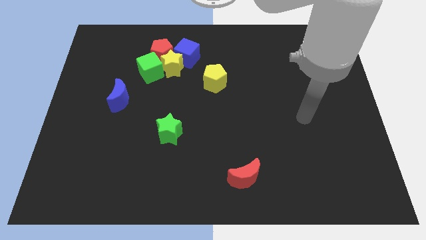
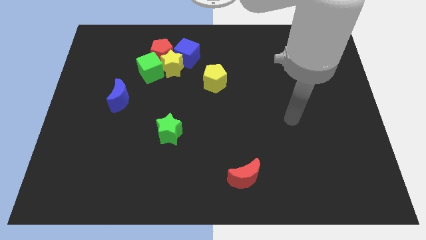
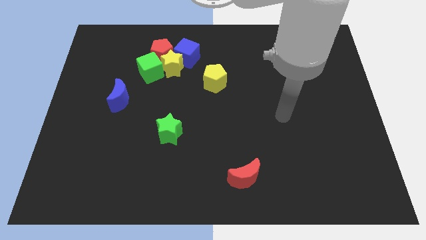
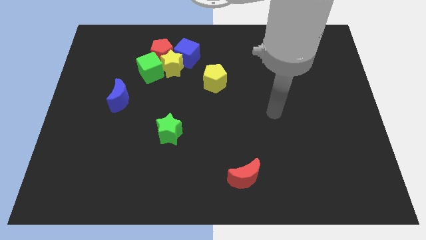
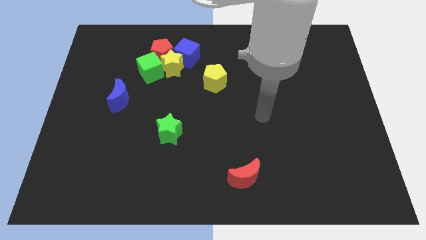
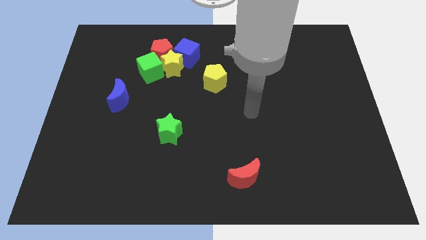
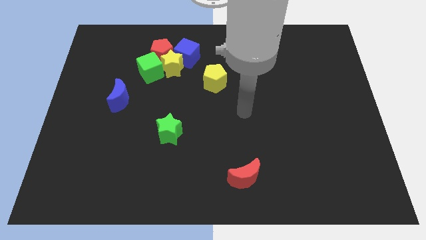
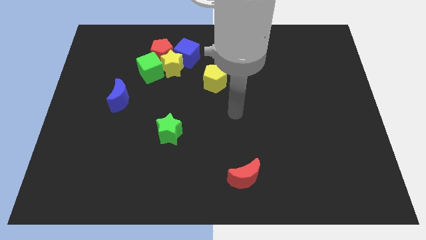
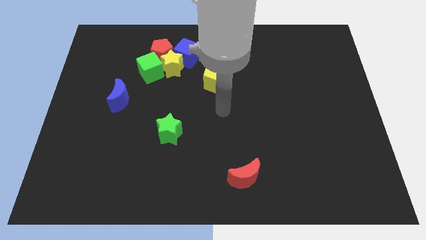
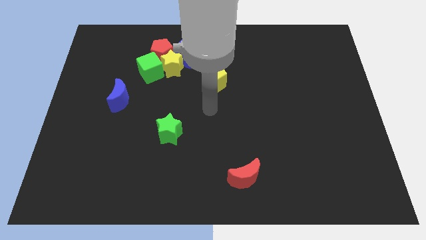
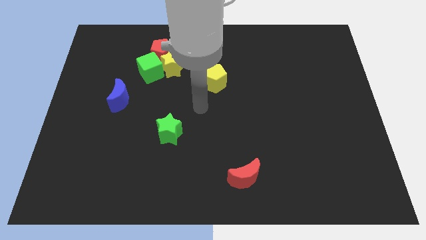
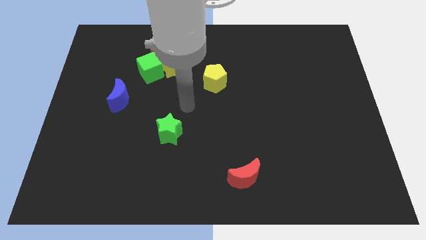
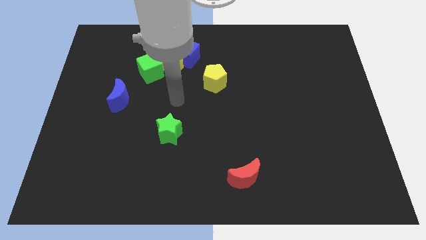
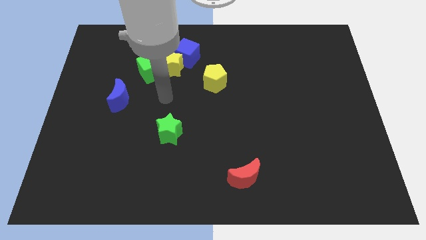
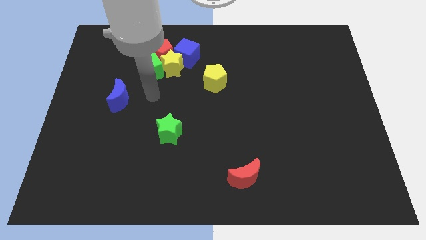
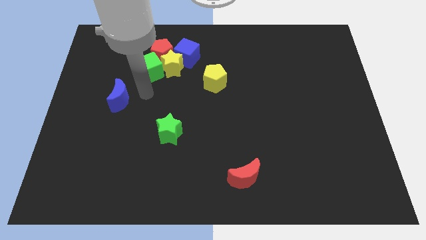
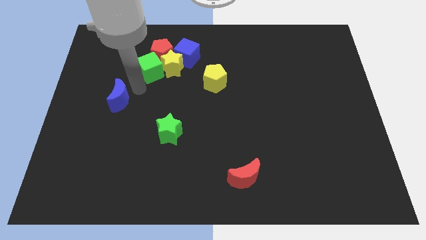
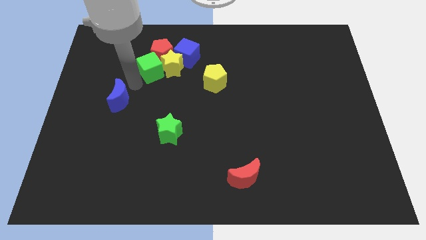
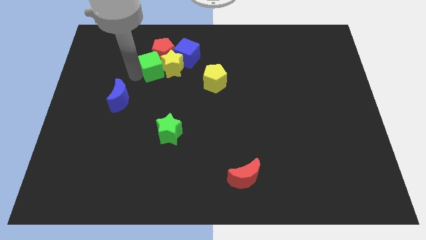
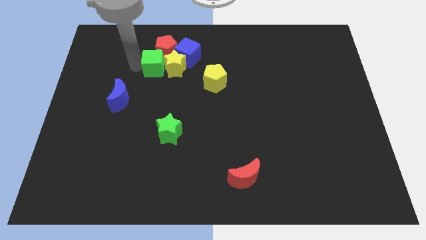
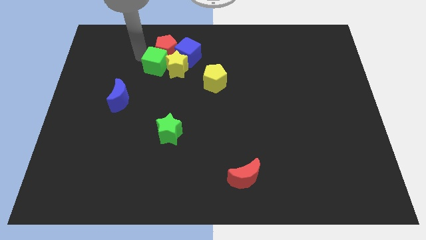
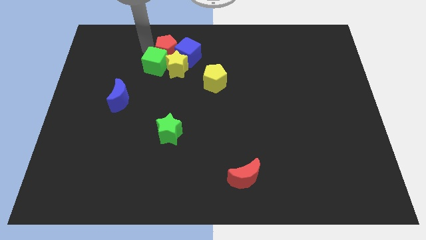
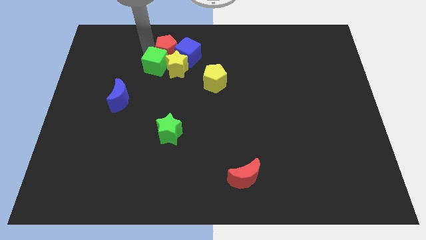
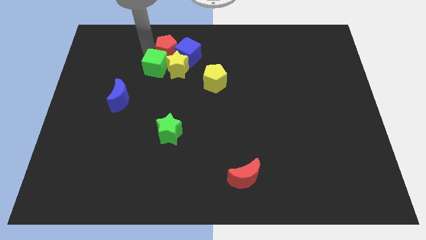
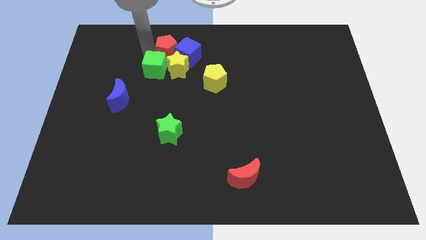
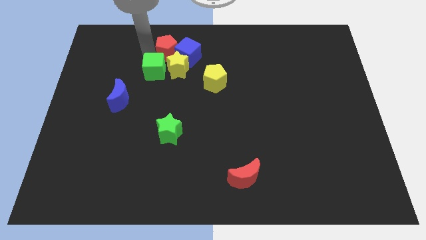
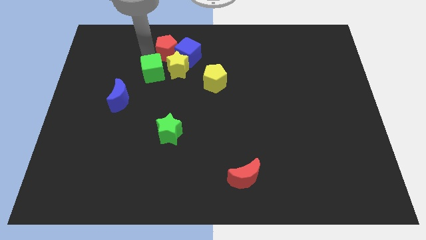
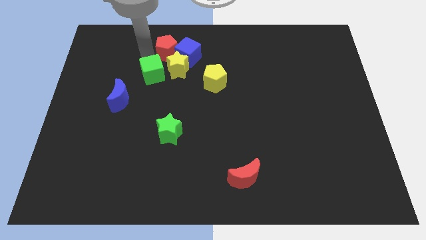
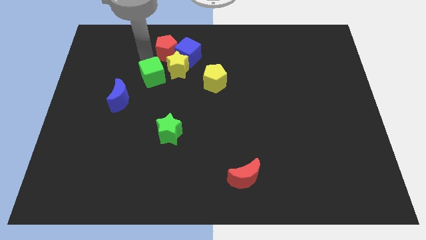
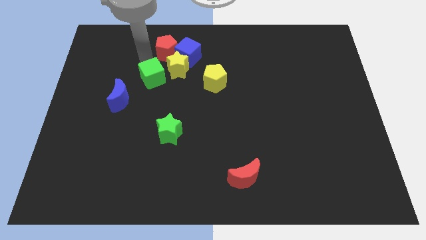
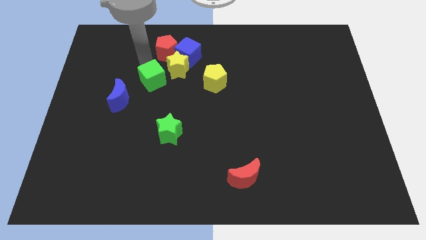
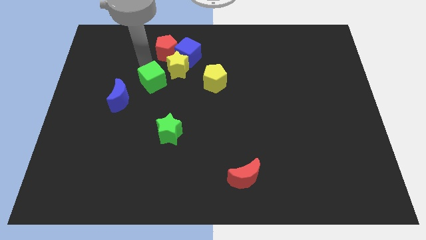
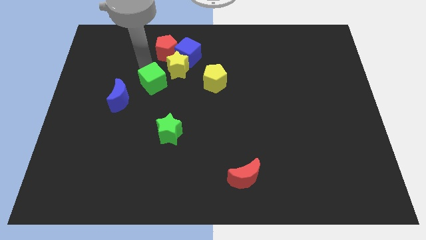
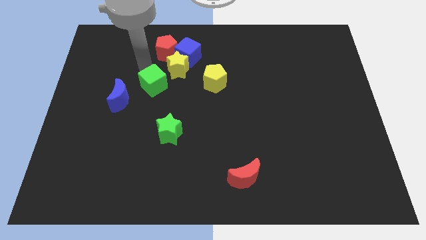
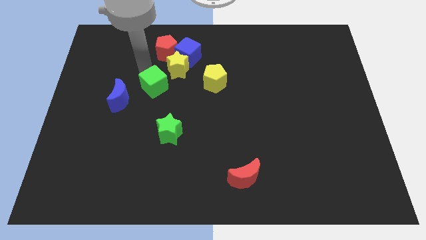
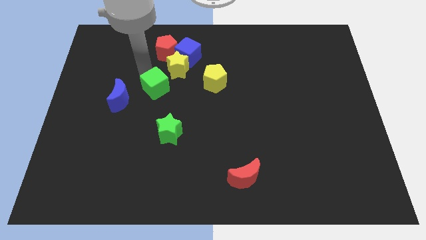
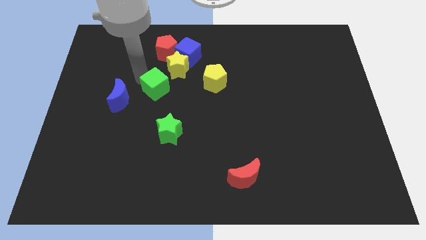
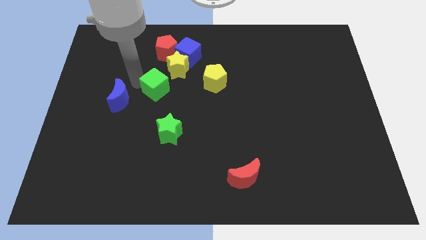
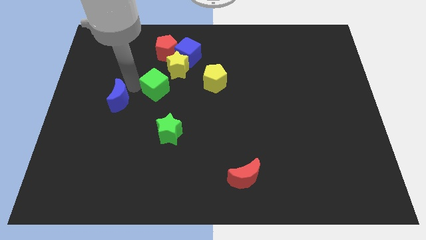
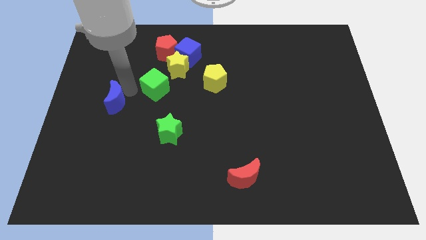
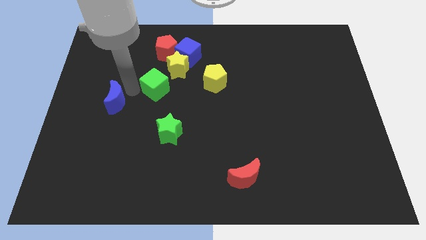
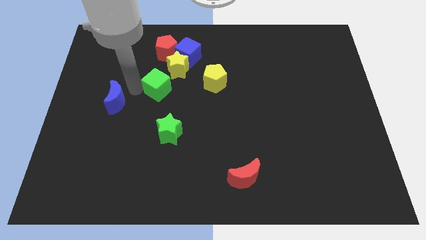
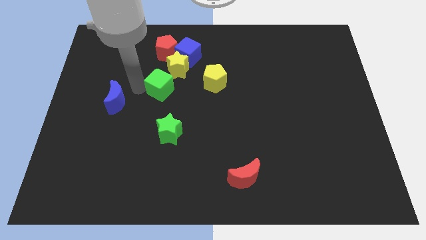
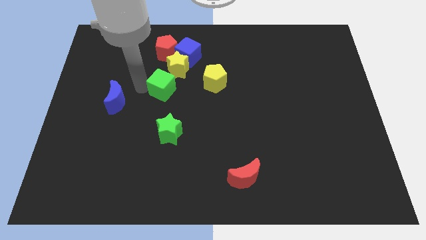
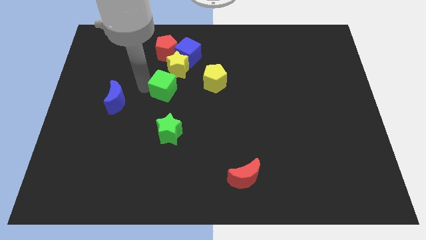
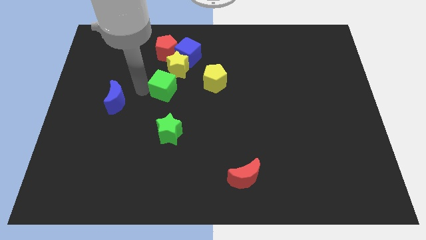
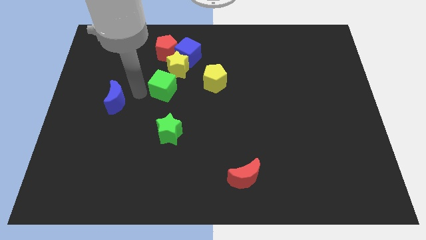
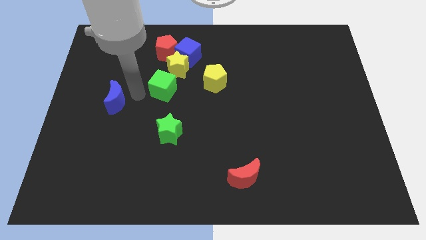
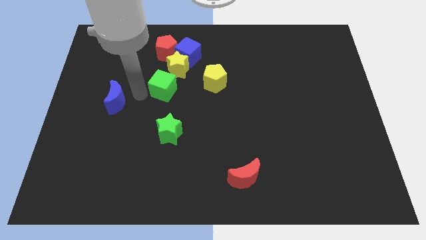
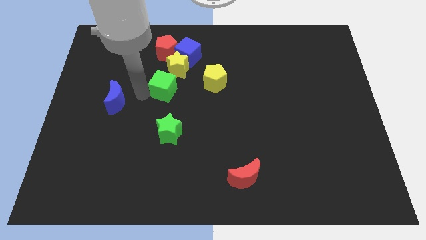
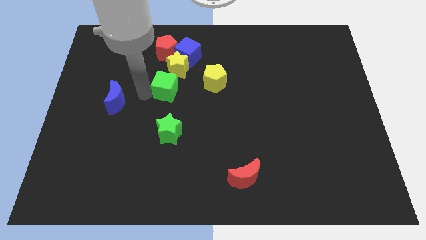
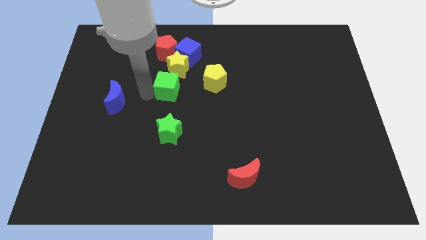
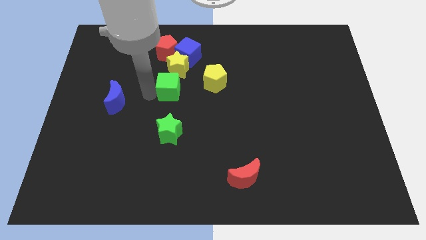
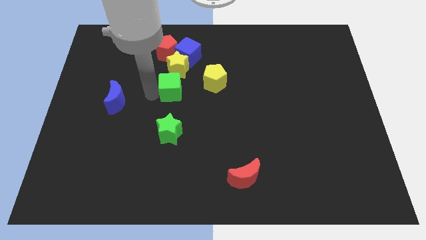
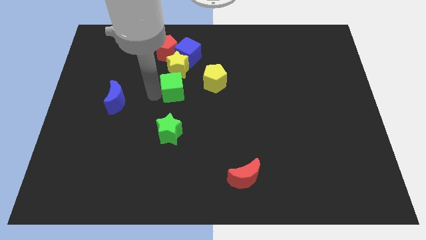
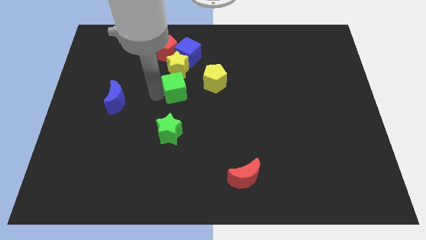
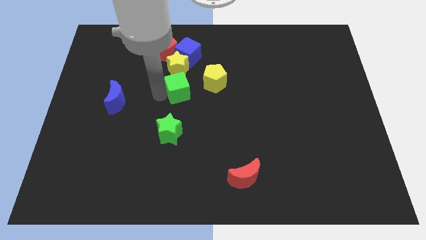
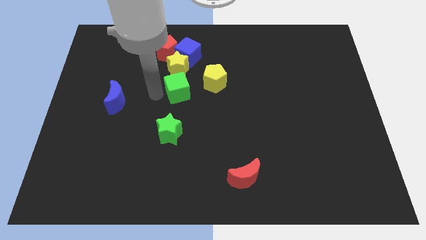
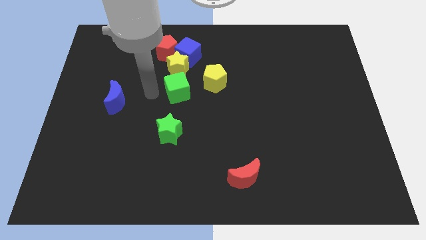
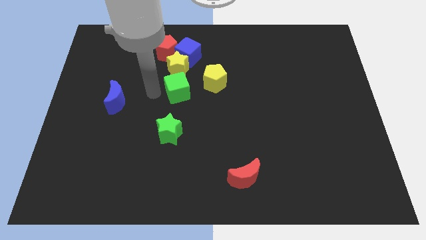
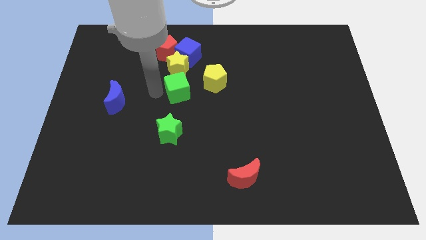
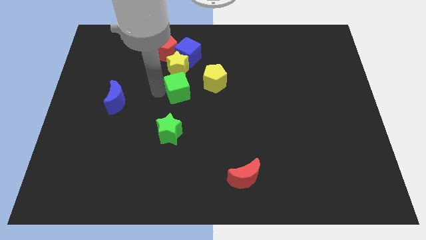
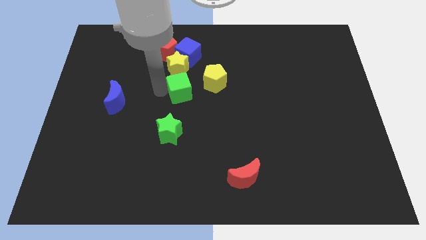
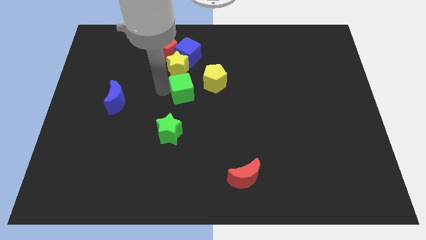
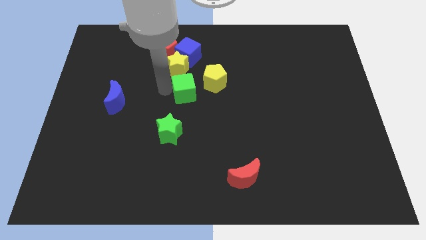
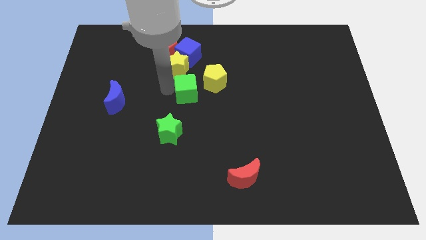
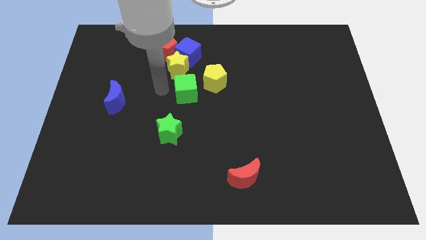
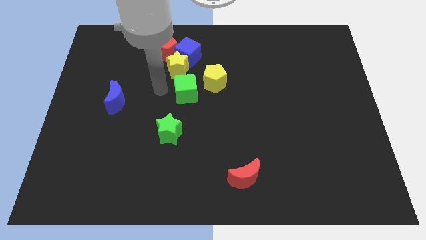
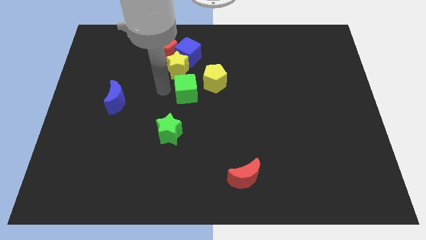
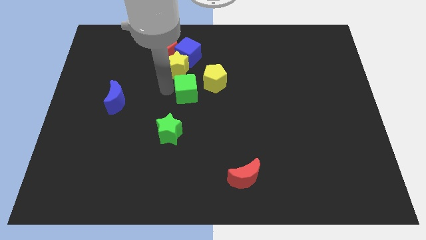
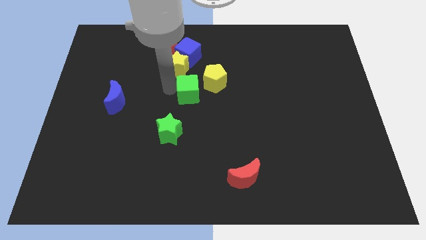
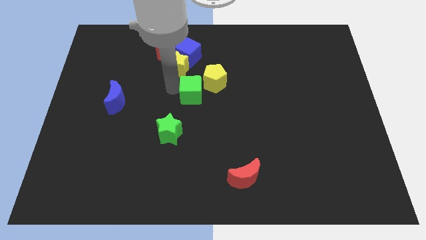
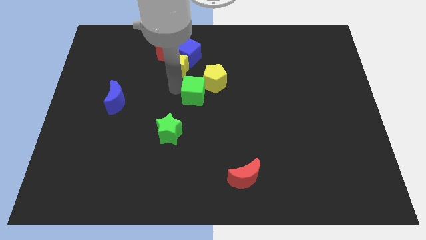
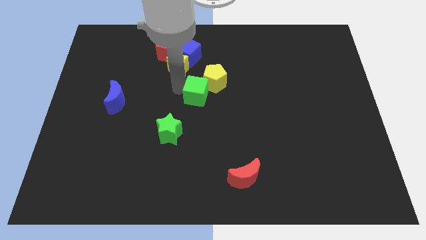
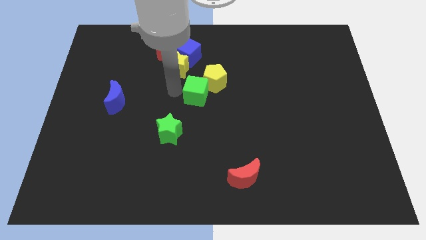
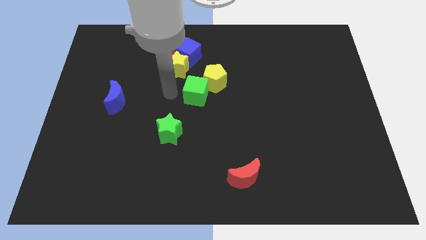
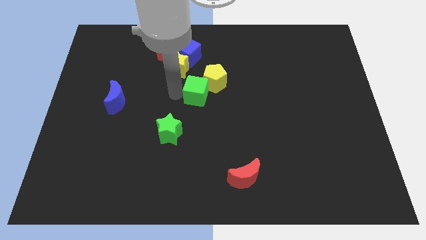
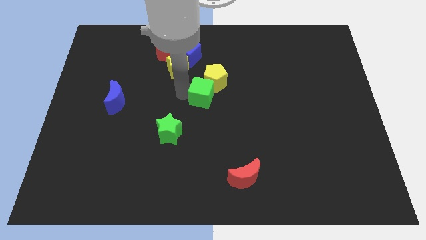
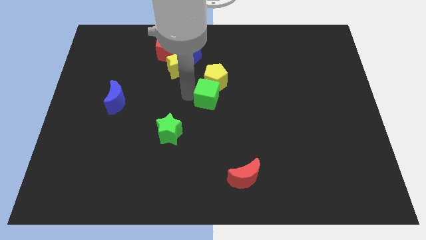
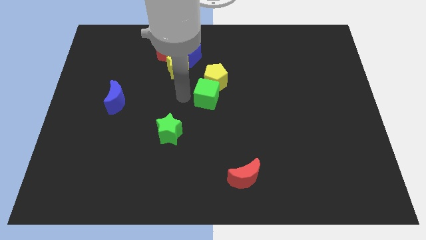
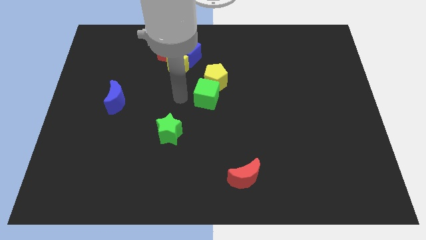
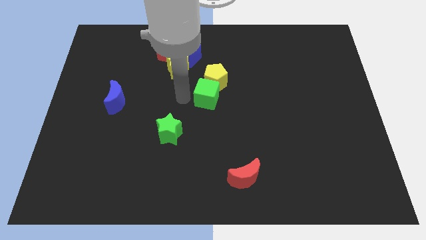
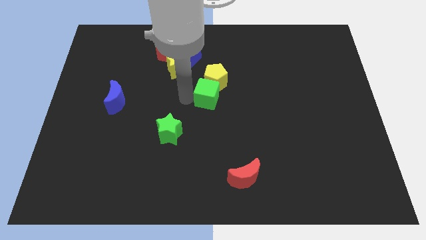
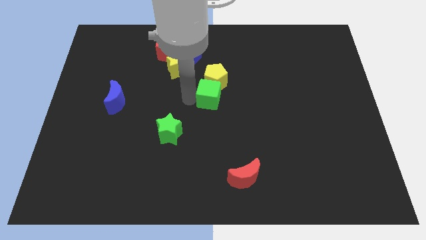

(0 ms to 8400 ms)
push the green cube diagonally down and to the right of the yellow pentagon
